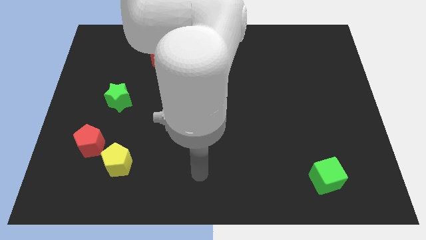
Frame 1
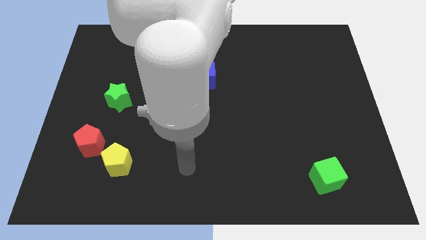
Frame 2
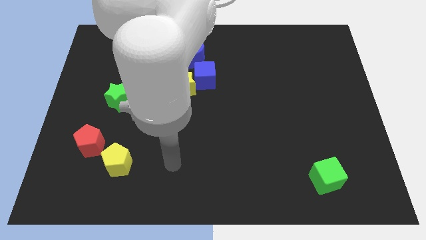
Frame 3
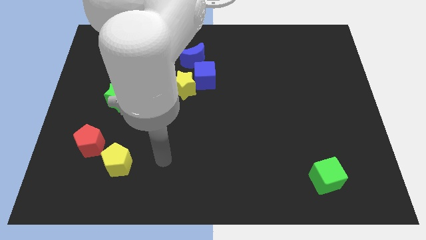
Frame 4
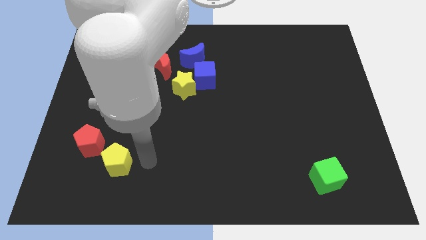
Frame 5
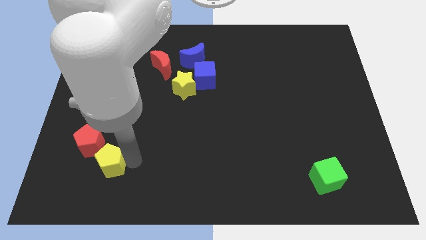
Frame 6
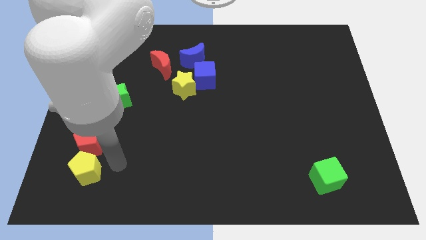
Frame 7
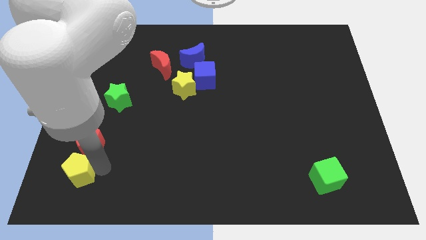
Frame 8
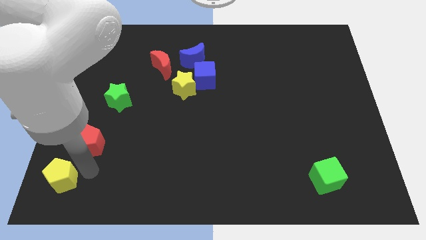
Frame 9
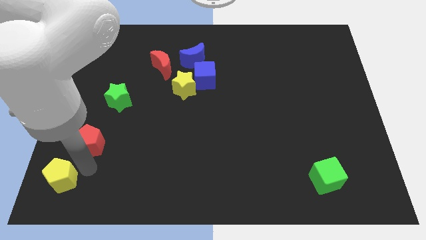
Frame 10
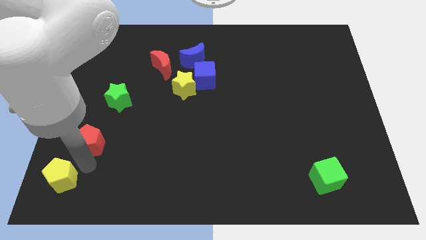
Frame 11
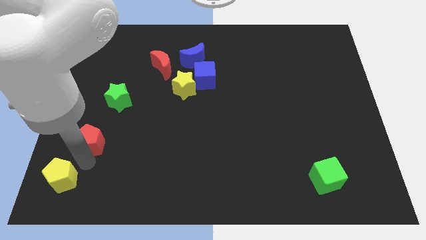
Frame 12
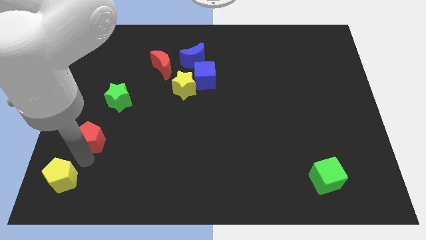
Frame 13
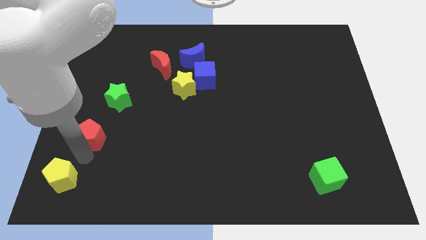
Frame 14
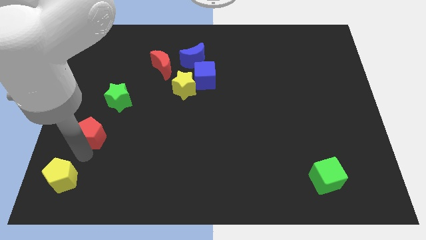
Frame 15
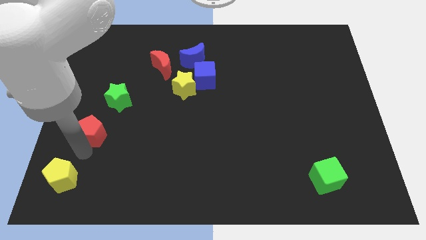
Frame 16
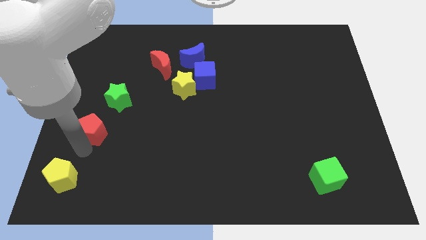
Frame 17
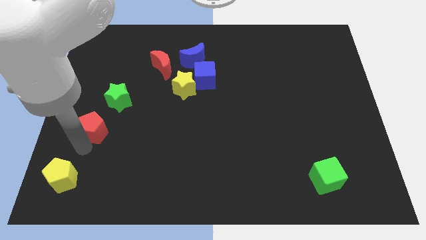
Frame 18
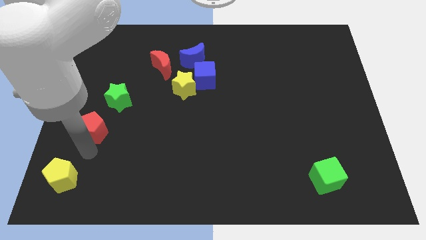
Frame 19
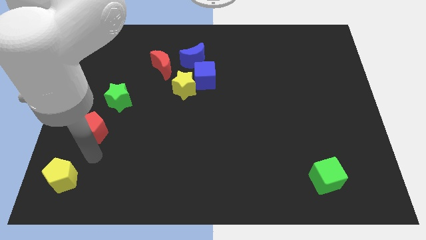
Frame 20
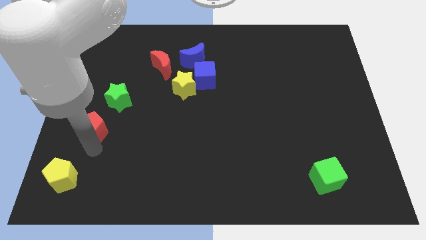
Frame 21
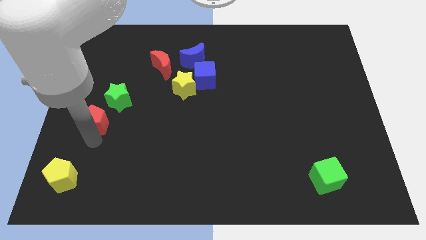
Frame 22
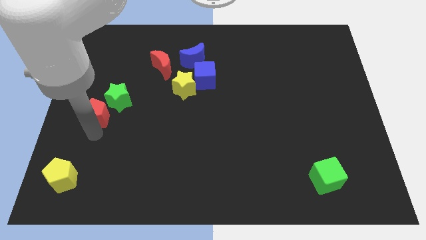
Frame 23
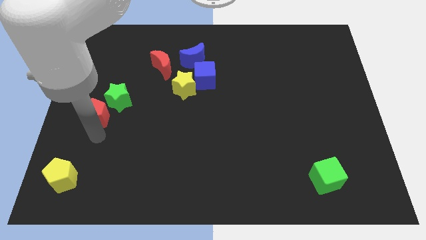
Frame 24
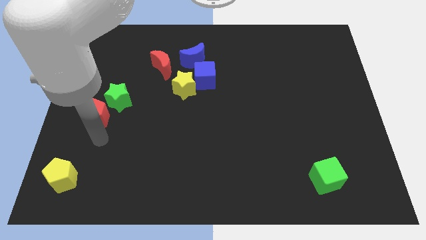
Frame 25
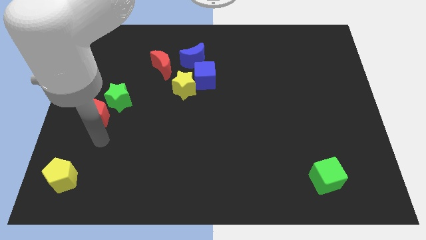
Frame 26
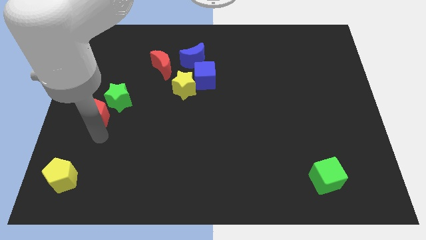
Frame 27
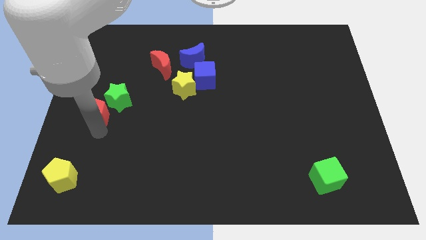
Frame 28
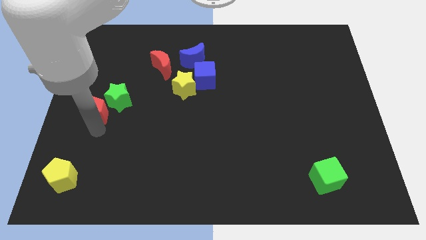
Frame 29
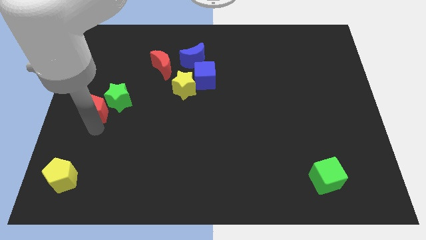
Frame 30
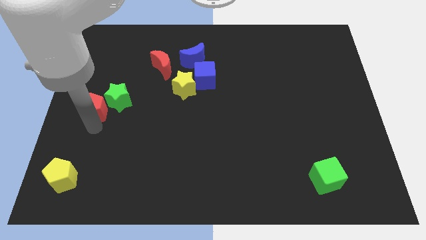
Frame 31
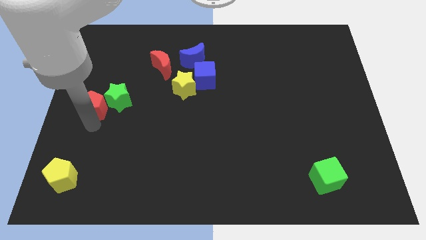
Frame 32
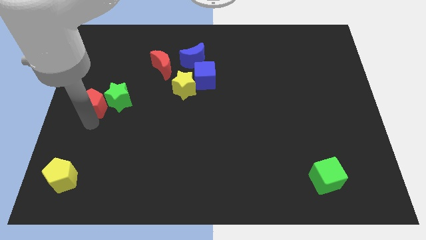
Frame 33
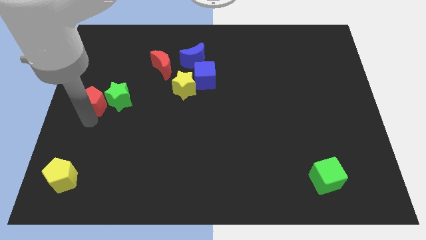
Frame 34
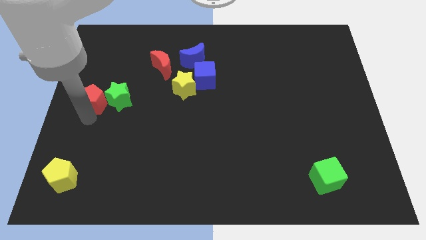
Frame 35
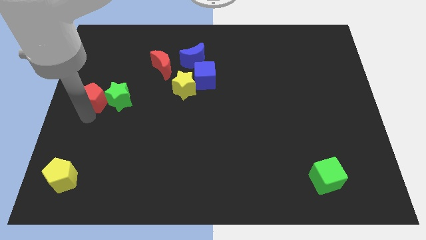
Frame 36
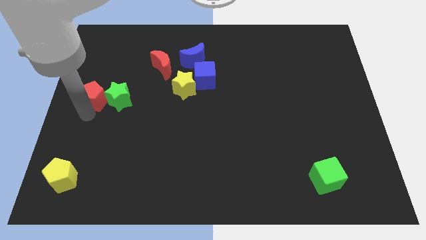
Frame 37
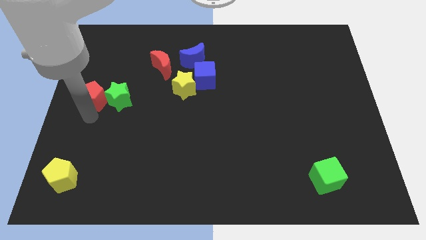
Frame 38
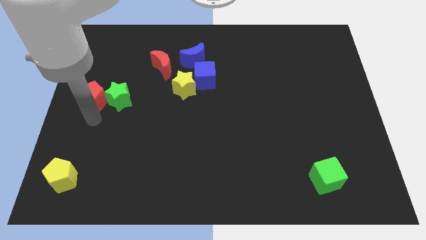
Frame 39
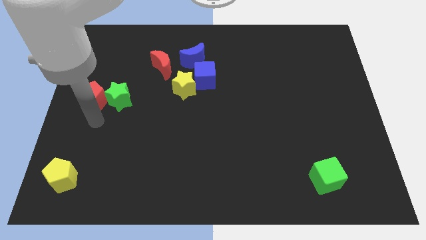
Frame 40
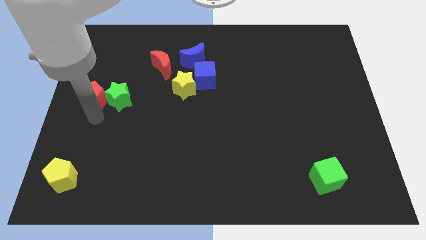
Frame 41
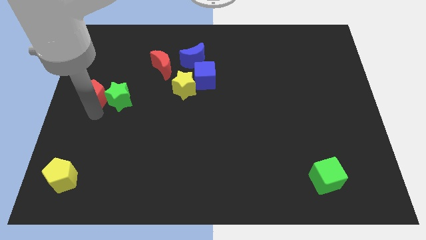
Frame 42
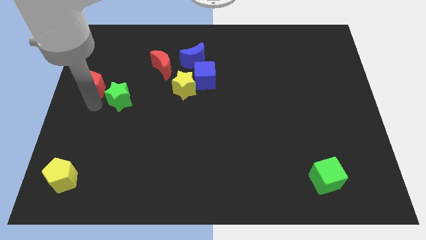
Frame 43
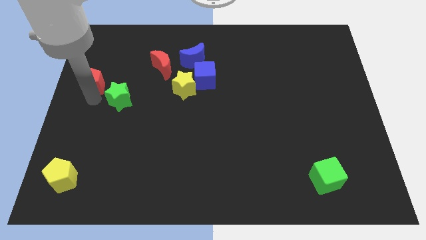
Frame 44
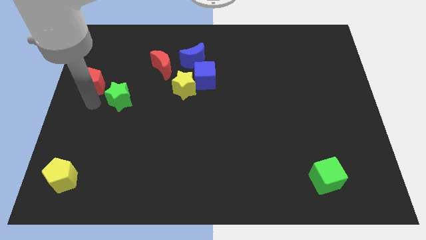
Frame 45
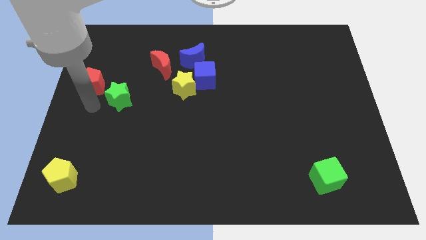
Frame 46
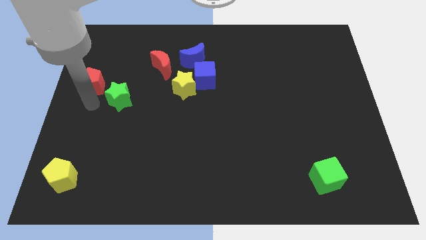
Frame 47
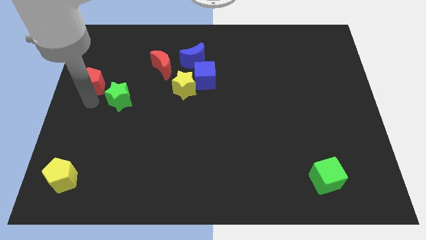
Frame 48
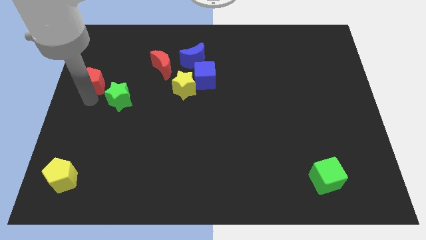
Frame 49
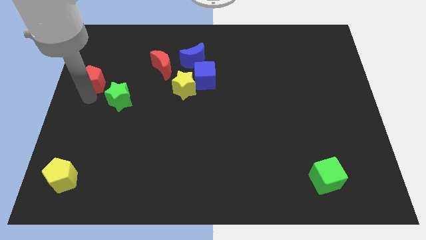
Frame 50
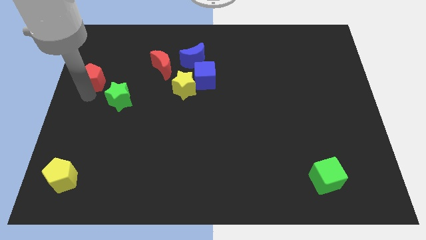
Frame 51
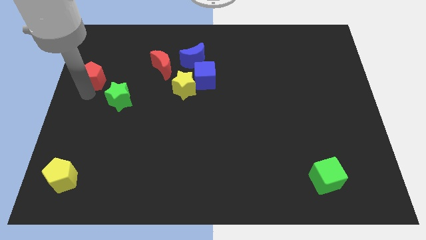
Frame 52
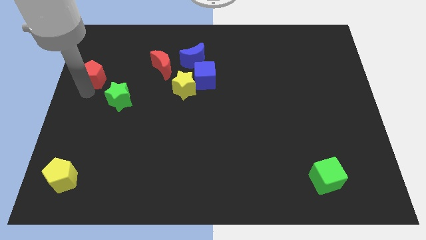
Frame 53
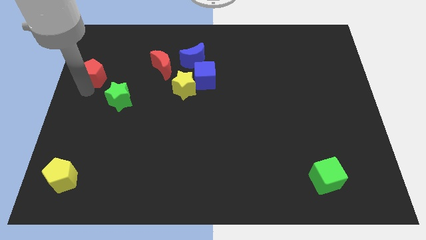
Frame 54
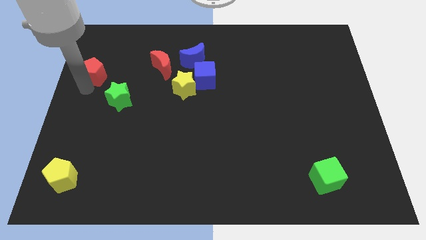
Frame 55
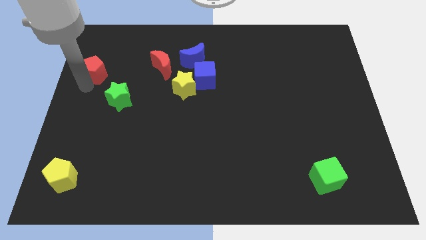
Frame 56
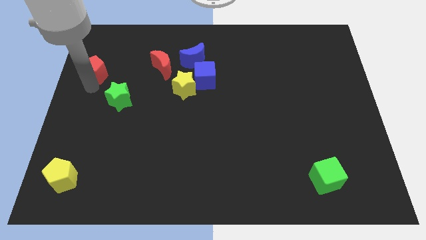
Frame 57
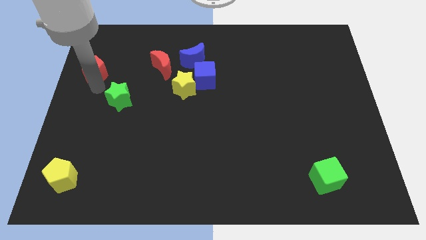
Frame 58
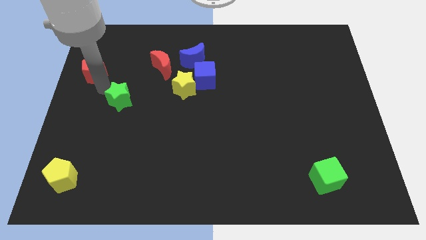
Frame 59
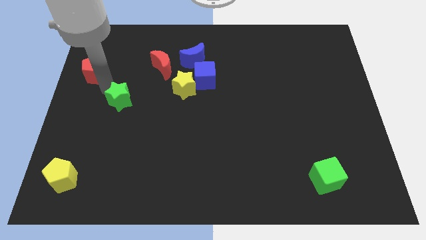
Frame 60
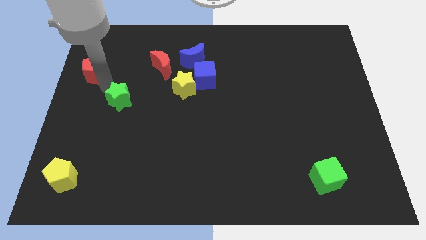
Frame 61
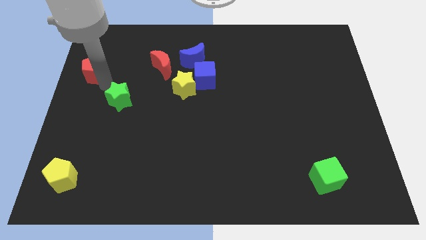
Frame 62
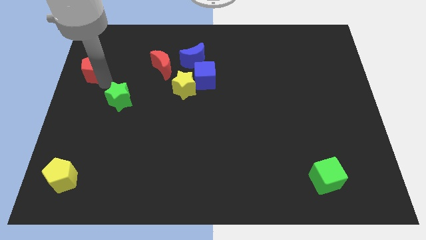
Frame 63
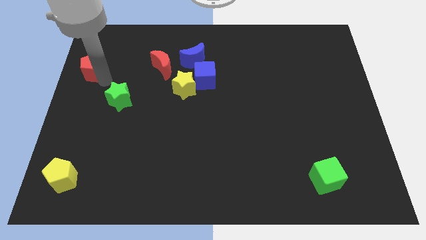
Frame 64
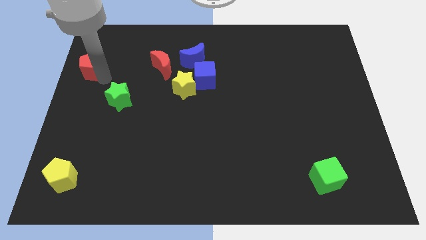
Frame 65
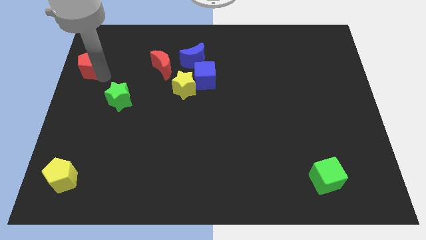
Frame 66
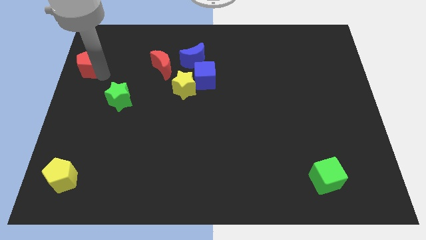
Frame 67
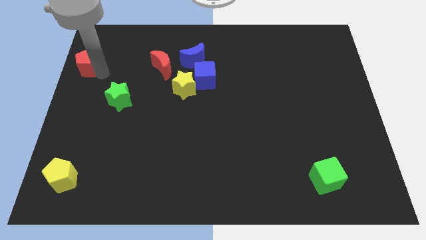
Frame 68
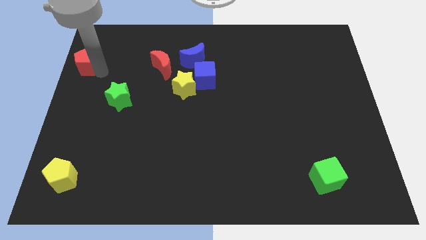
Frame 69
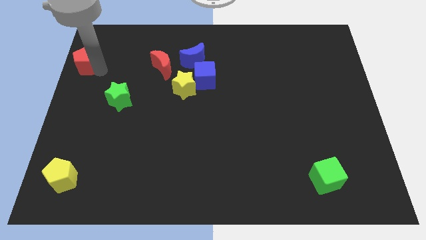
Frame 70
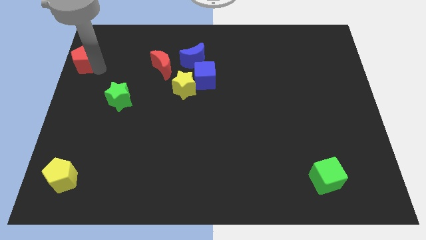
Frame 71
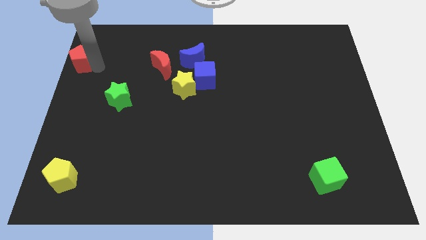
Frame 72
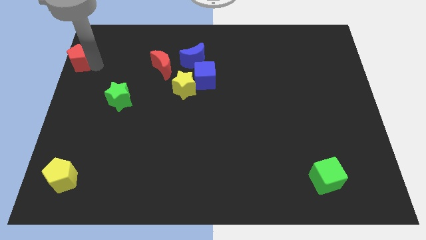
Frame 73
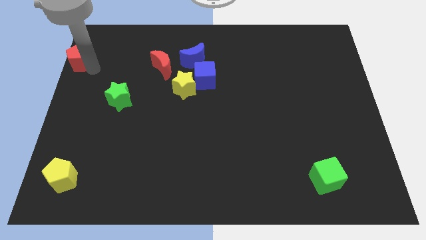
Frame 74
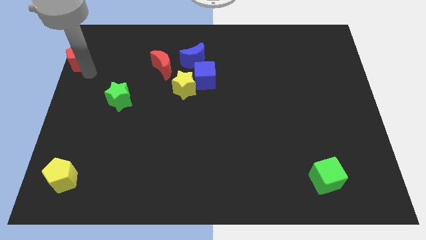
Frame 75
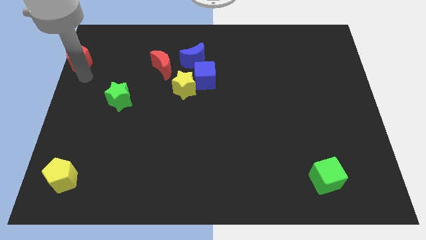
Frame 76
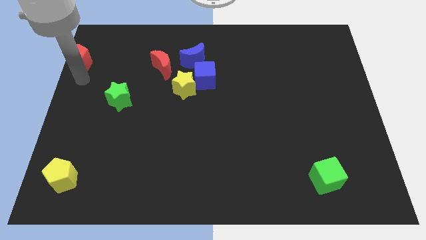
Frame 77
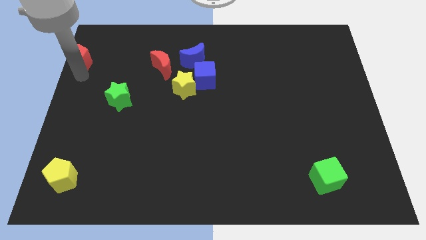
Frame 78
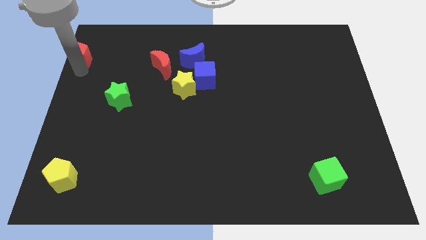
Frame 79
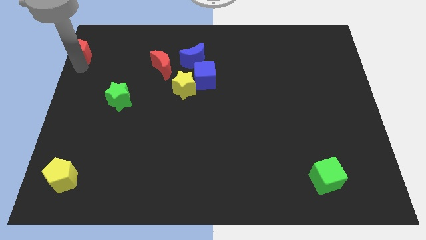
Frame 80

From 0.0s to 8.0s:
move the red pentagon to the top left
